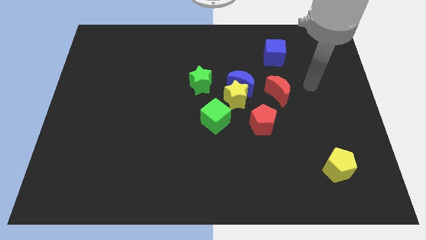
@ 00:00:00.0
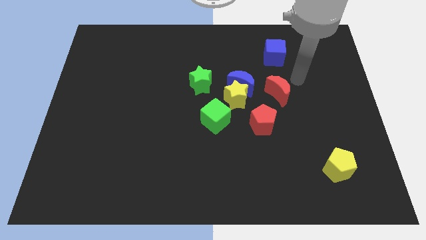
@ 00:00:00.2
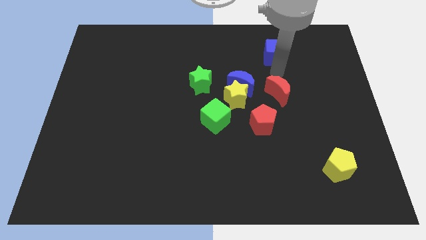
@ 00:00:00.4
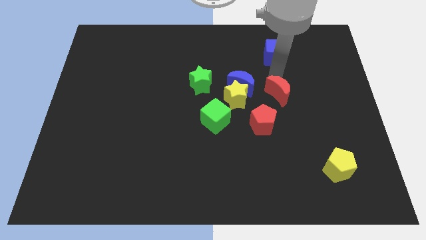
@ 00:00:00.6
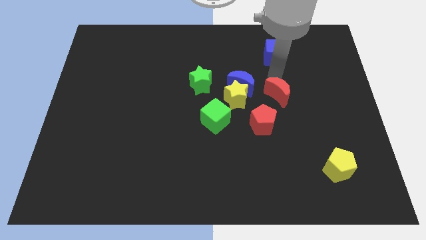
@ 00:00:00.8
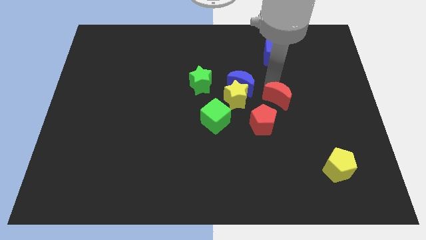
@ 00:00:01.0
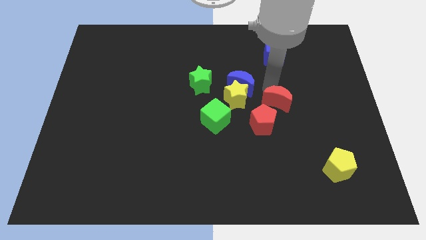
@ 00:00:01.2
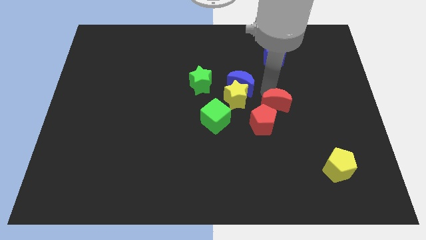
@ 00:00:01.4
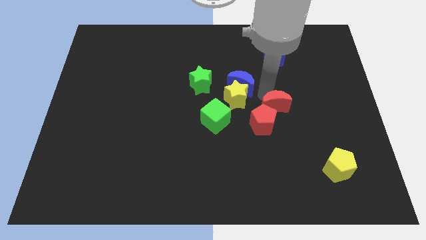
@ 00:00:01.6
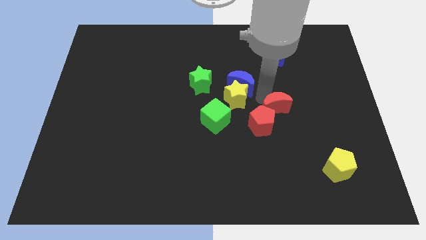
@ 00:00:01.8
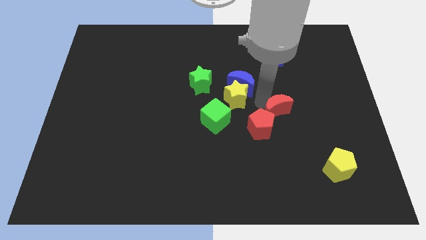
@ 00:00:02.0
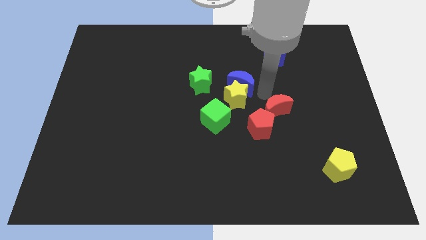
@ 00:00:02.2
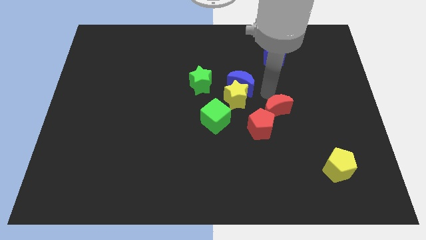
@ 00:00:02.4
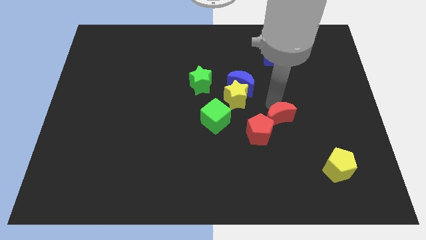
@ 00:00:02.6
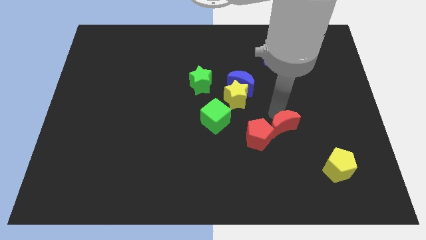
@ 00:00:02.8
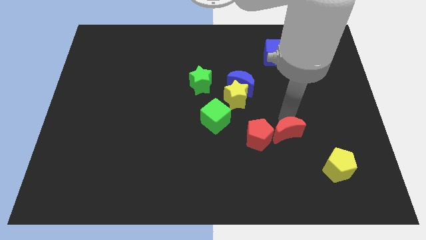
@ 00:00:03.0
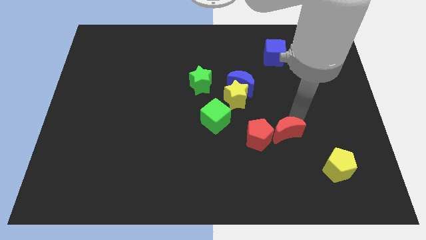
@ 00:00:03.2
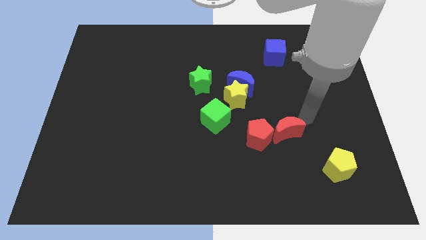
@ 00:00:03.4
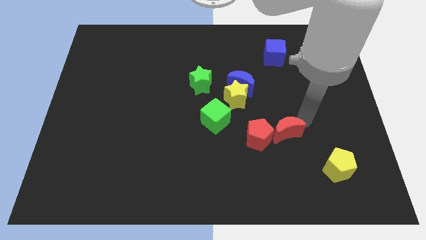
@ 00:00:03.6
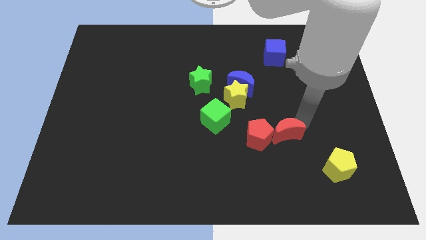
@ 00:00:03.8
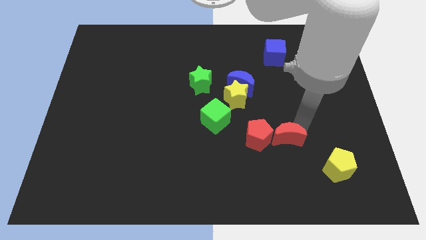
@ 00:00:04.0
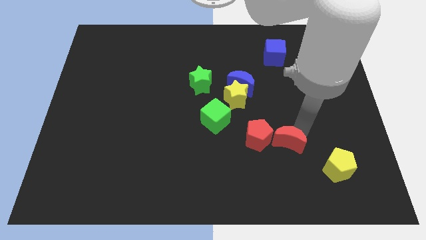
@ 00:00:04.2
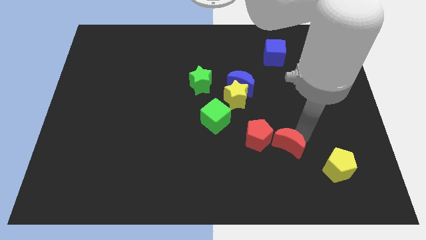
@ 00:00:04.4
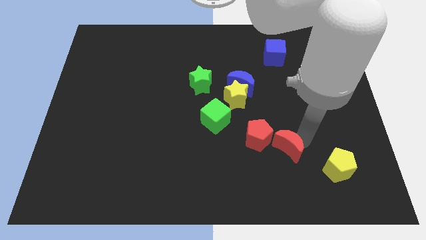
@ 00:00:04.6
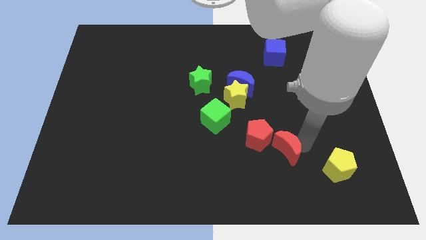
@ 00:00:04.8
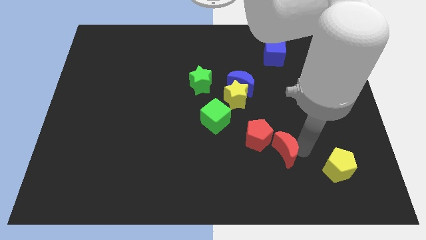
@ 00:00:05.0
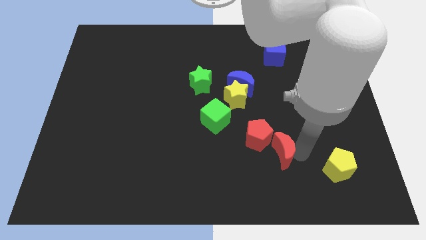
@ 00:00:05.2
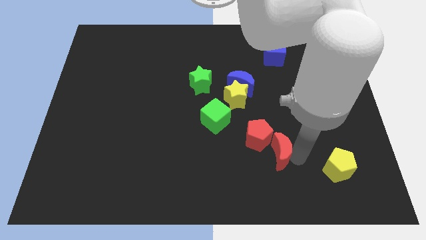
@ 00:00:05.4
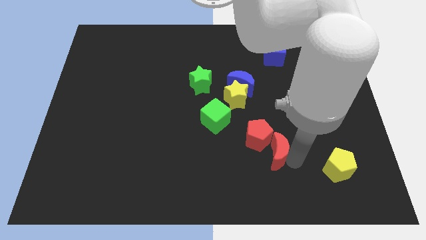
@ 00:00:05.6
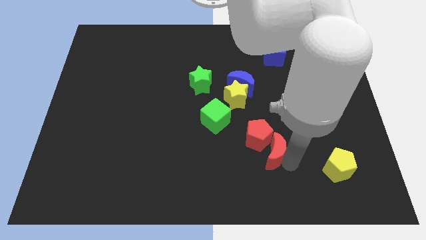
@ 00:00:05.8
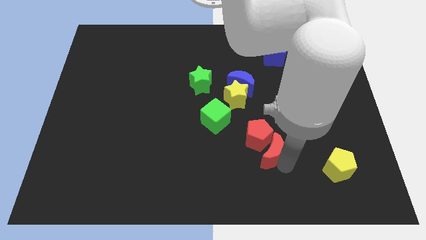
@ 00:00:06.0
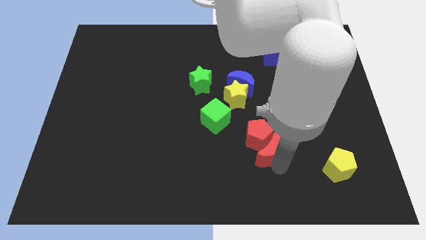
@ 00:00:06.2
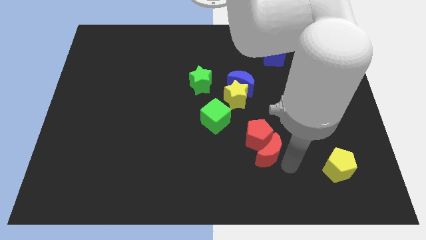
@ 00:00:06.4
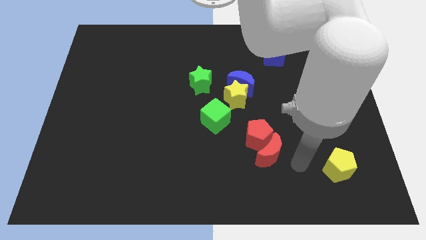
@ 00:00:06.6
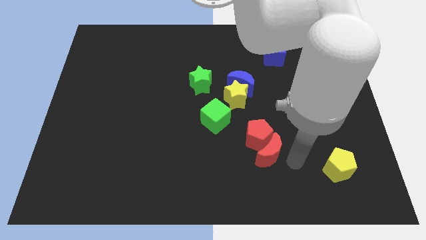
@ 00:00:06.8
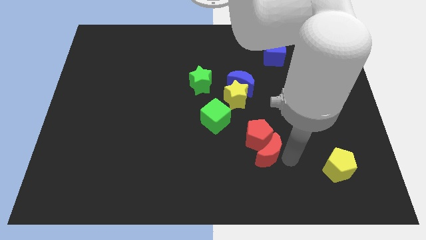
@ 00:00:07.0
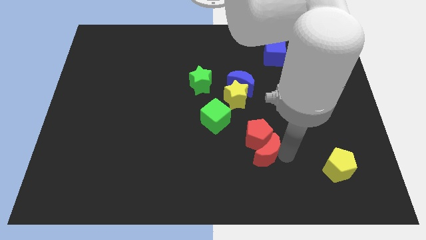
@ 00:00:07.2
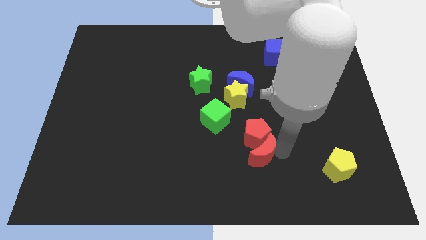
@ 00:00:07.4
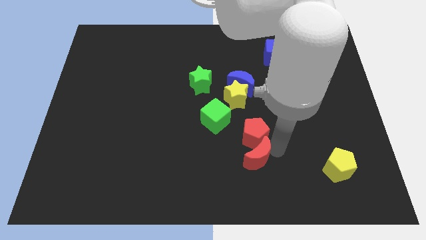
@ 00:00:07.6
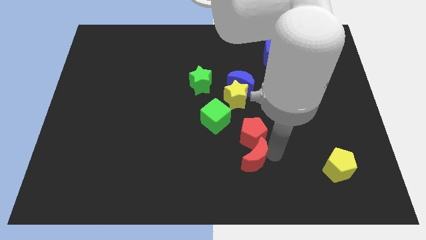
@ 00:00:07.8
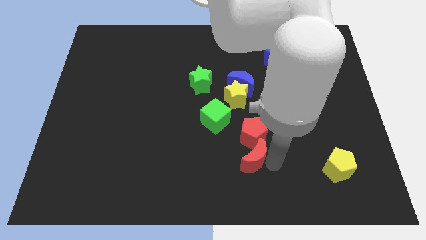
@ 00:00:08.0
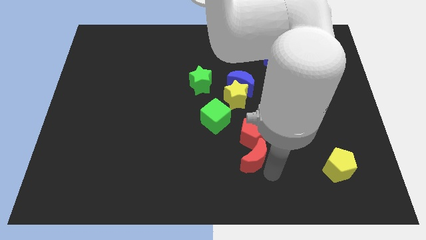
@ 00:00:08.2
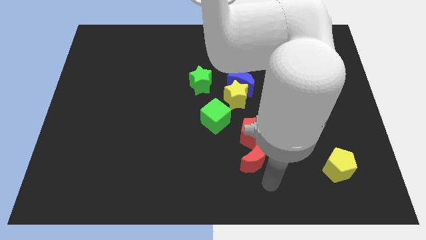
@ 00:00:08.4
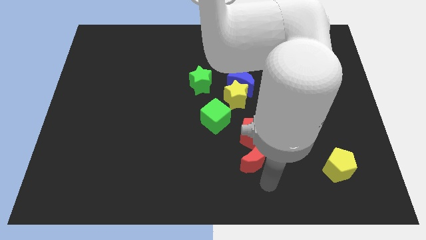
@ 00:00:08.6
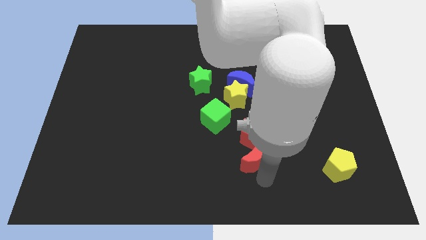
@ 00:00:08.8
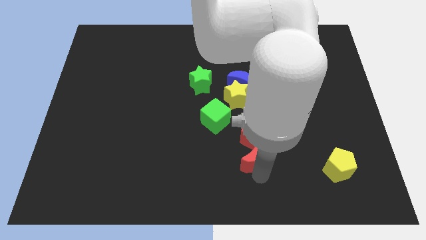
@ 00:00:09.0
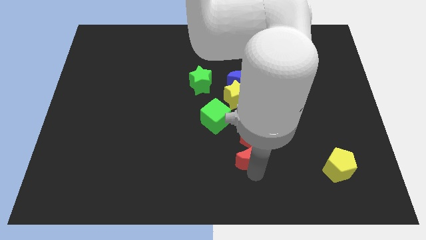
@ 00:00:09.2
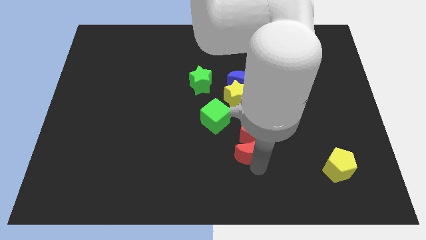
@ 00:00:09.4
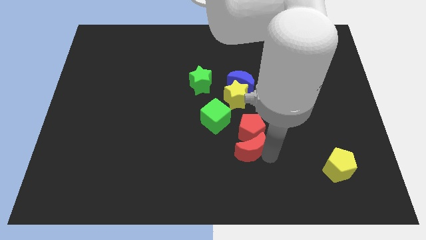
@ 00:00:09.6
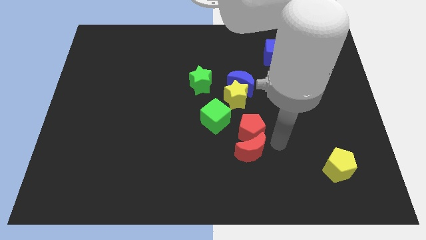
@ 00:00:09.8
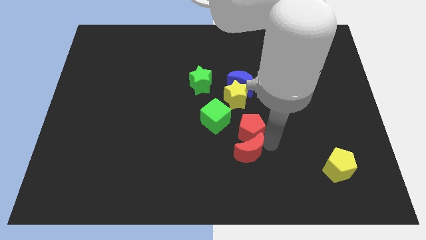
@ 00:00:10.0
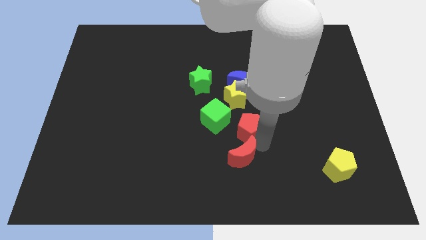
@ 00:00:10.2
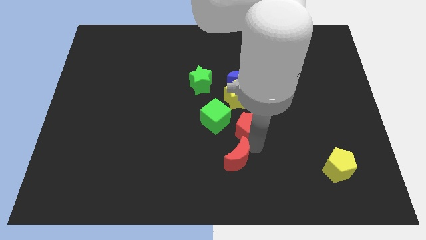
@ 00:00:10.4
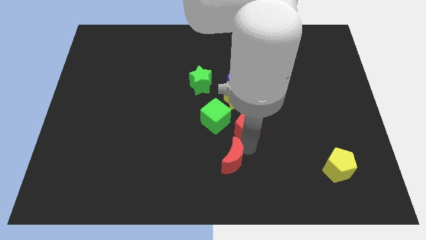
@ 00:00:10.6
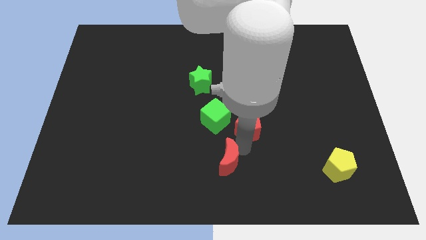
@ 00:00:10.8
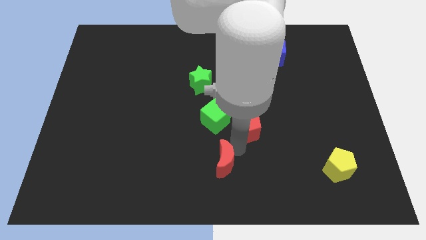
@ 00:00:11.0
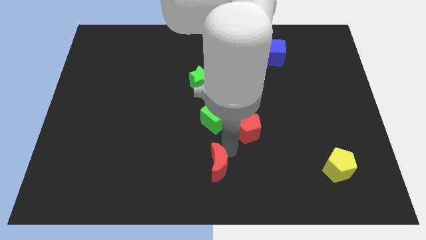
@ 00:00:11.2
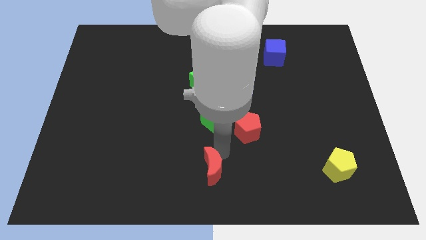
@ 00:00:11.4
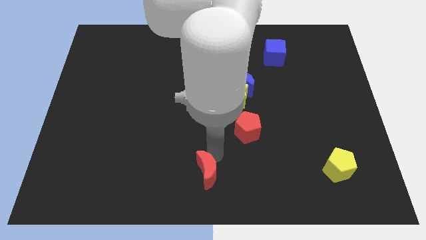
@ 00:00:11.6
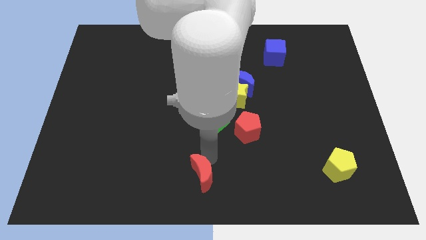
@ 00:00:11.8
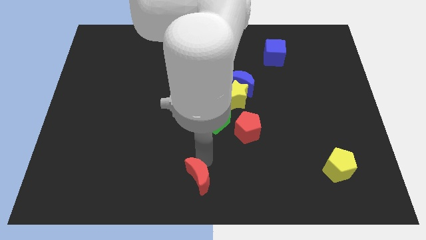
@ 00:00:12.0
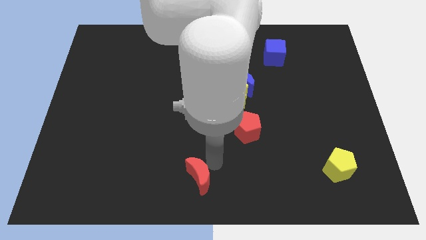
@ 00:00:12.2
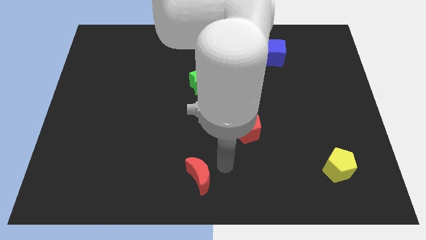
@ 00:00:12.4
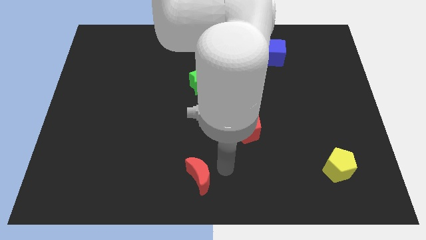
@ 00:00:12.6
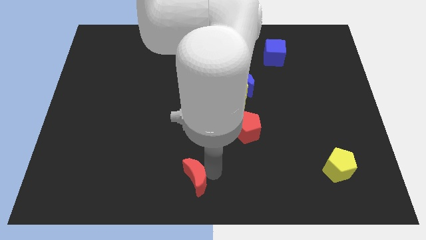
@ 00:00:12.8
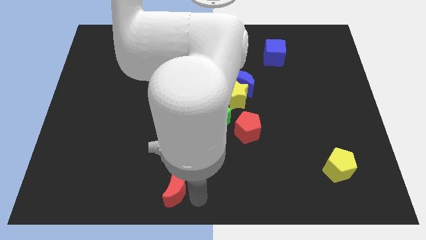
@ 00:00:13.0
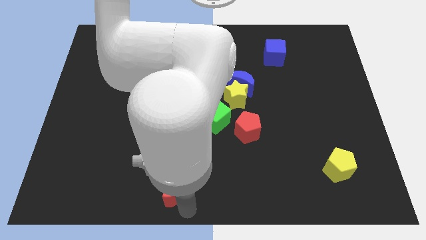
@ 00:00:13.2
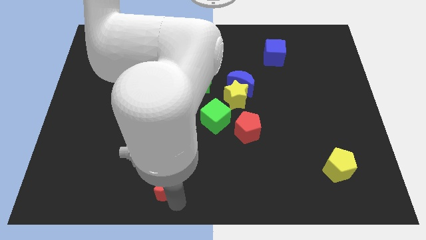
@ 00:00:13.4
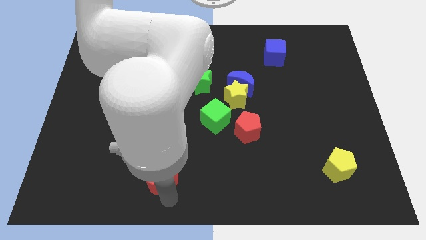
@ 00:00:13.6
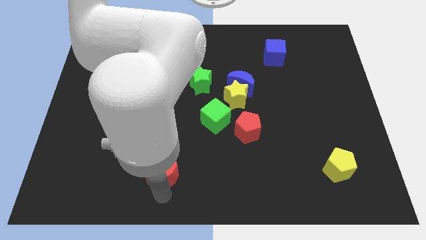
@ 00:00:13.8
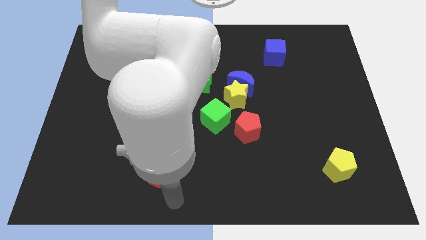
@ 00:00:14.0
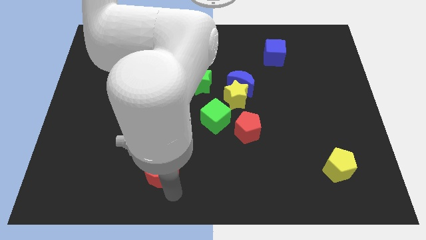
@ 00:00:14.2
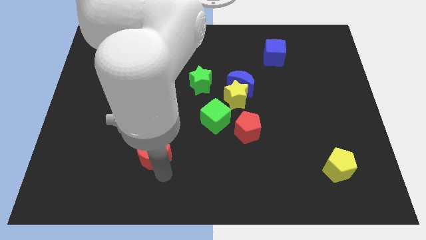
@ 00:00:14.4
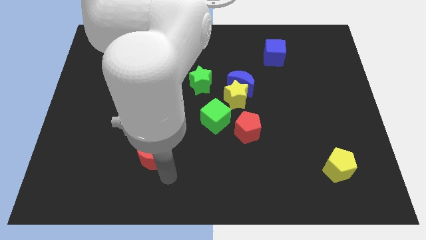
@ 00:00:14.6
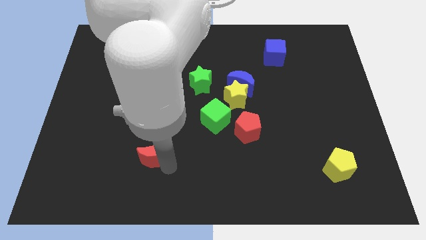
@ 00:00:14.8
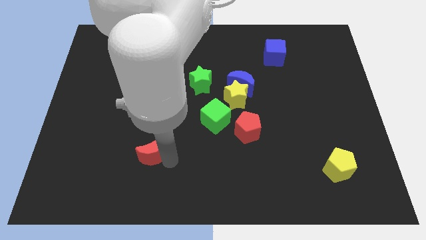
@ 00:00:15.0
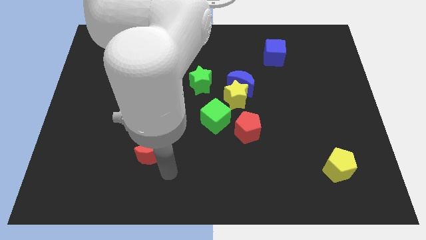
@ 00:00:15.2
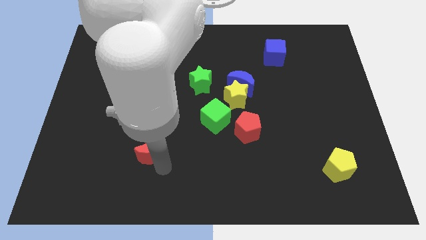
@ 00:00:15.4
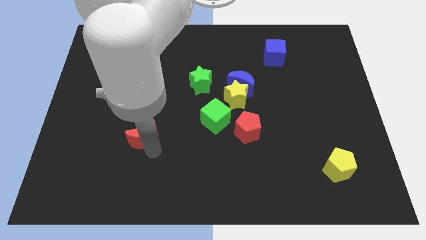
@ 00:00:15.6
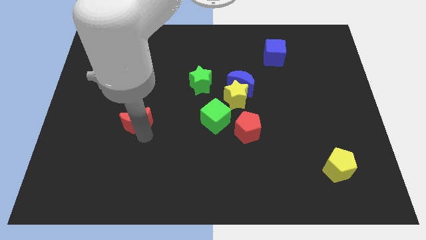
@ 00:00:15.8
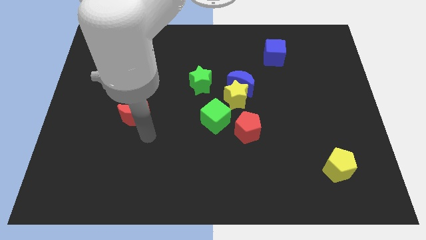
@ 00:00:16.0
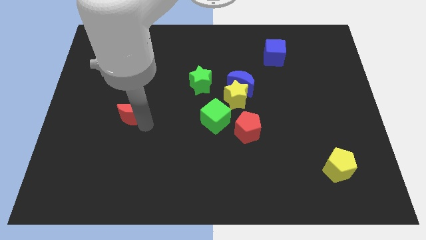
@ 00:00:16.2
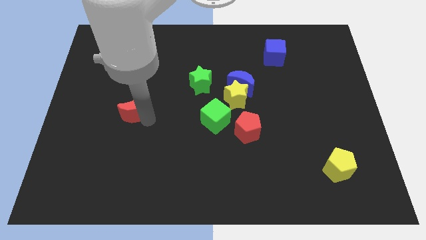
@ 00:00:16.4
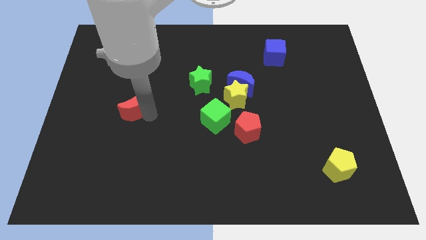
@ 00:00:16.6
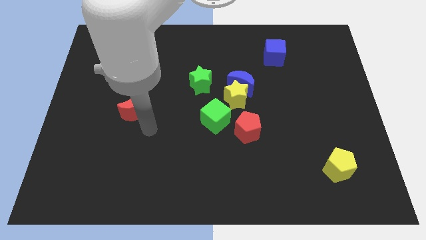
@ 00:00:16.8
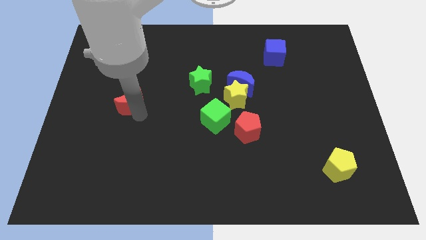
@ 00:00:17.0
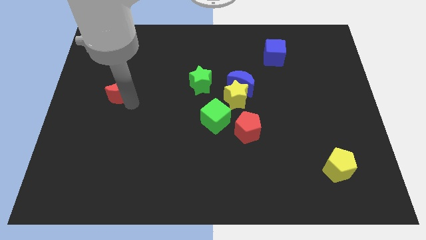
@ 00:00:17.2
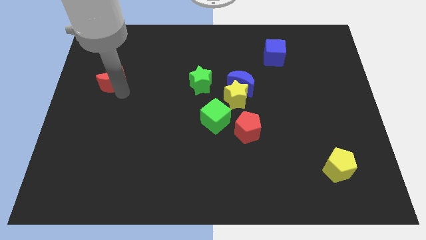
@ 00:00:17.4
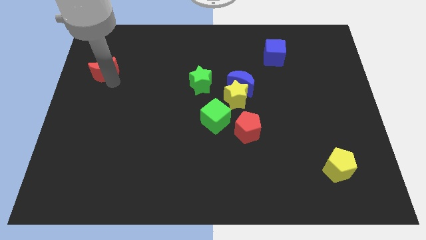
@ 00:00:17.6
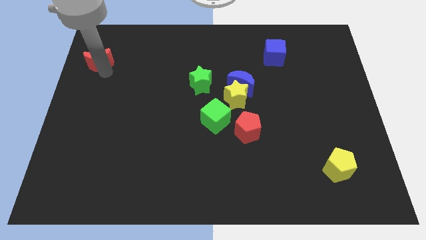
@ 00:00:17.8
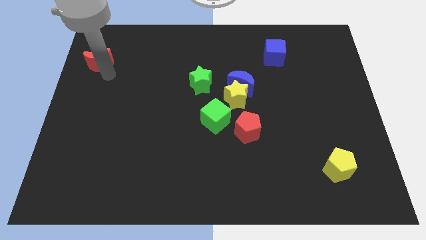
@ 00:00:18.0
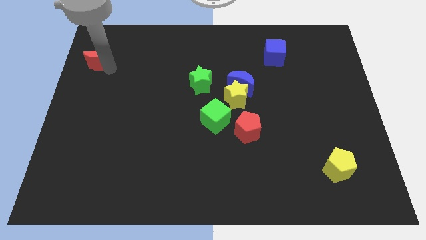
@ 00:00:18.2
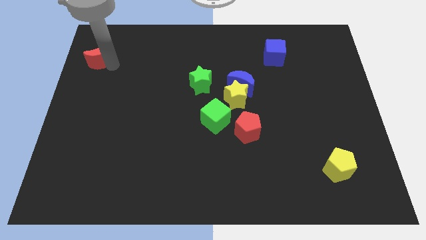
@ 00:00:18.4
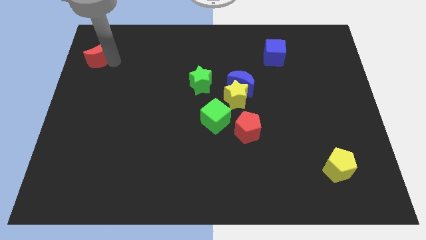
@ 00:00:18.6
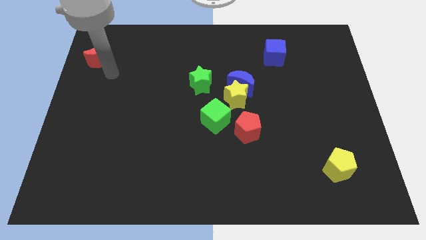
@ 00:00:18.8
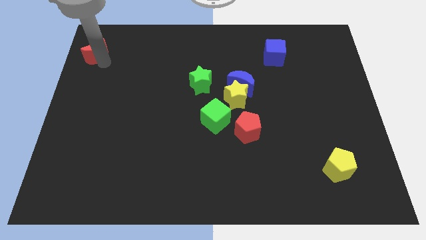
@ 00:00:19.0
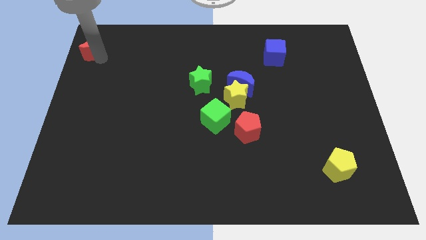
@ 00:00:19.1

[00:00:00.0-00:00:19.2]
move the red moon to the top left
